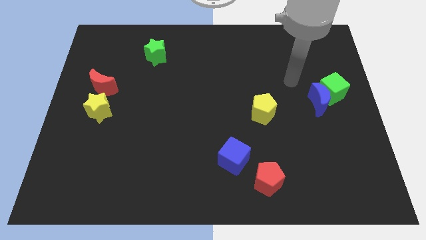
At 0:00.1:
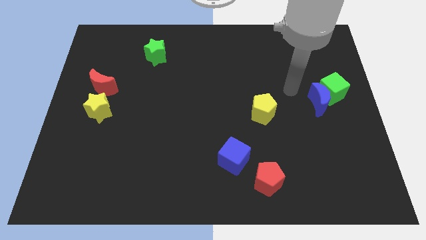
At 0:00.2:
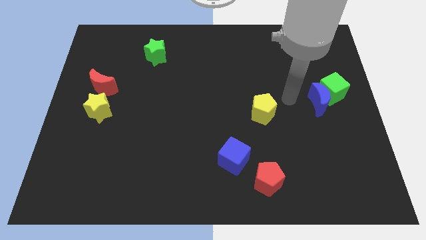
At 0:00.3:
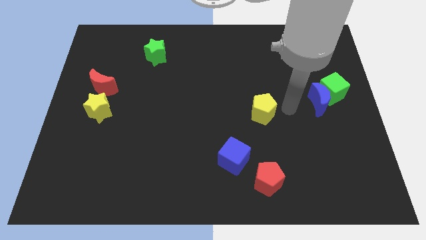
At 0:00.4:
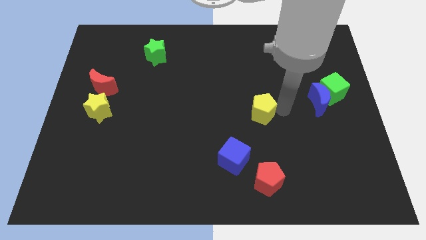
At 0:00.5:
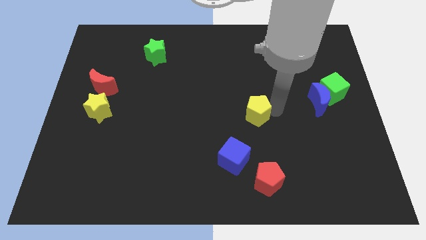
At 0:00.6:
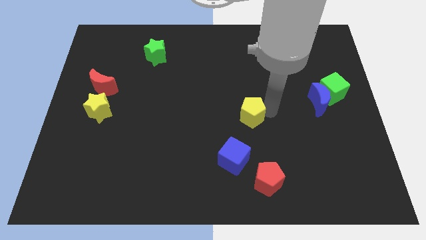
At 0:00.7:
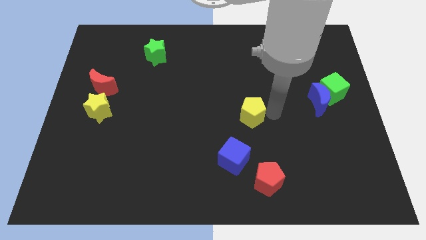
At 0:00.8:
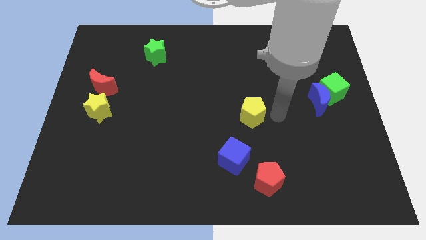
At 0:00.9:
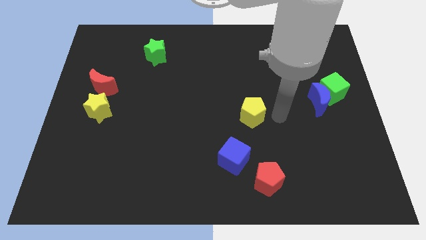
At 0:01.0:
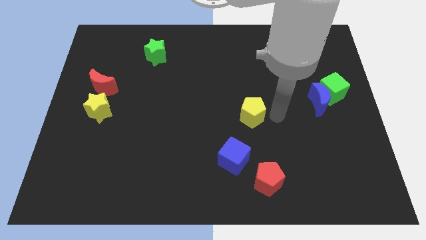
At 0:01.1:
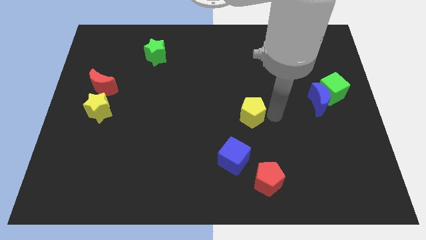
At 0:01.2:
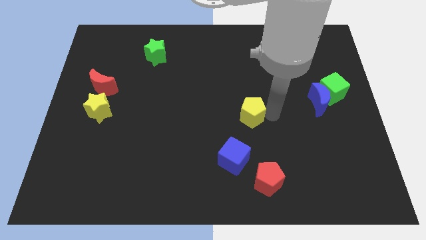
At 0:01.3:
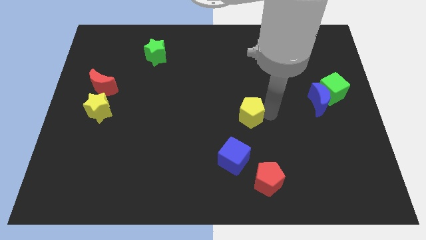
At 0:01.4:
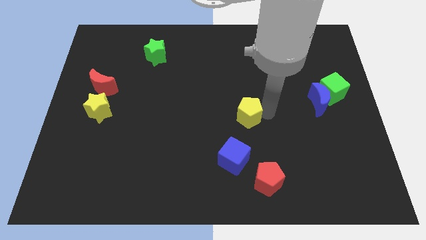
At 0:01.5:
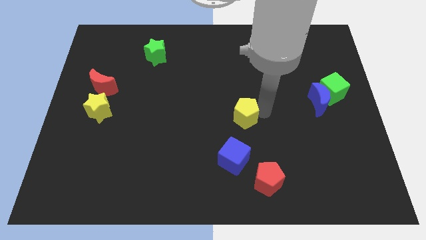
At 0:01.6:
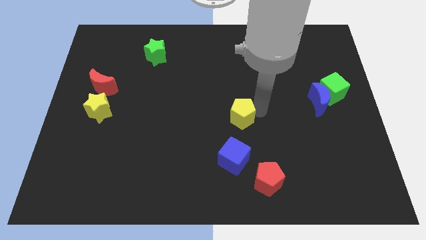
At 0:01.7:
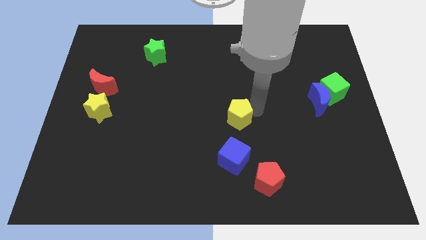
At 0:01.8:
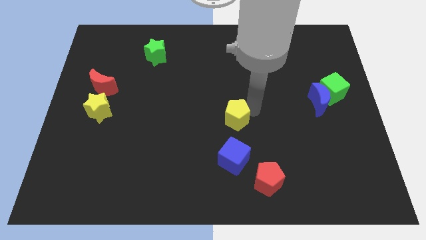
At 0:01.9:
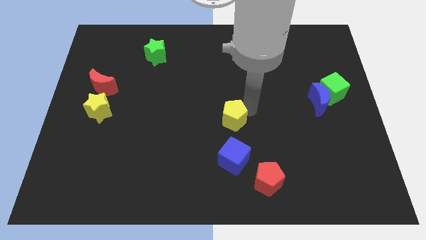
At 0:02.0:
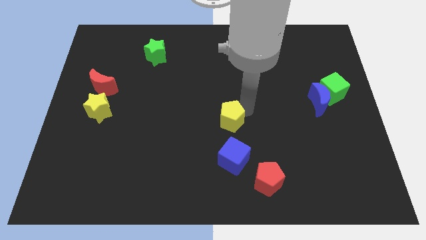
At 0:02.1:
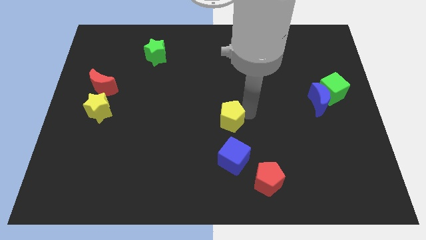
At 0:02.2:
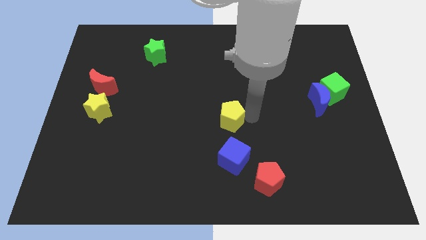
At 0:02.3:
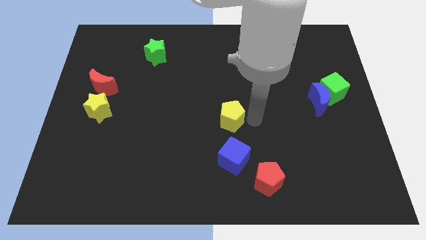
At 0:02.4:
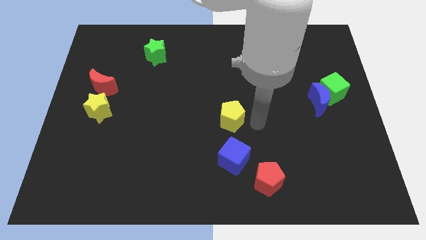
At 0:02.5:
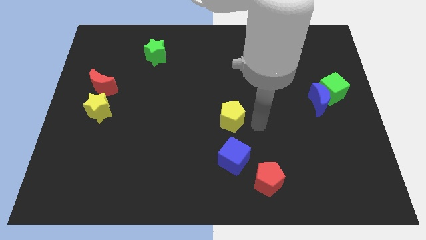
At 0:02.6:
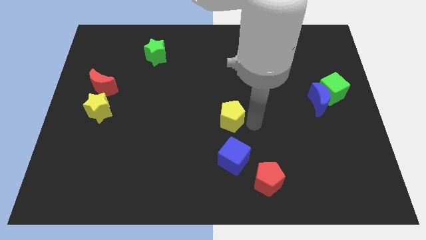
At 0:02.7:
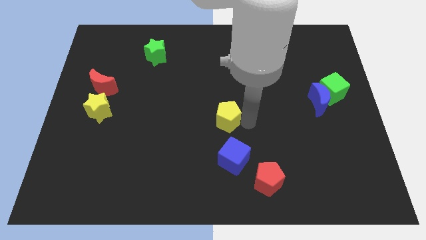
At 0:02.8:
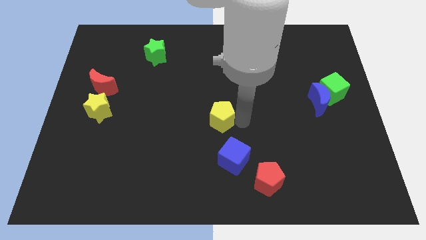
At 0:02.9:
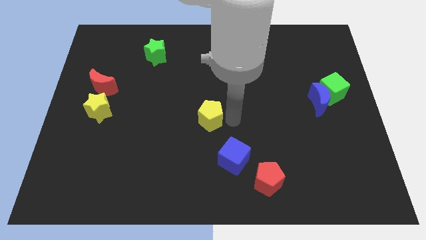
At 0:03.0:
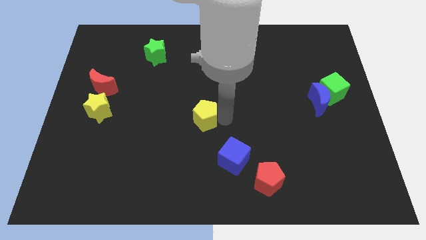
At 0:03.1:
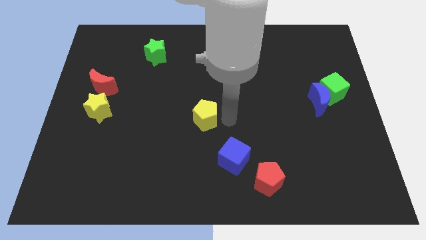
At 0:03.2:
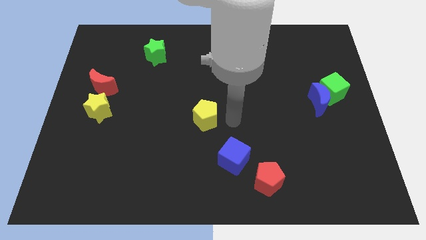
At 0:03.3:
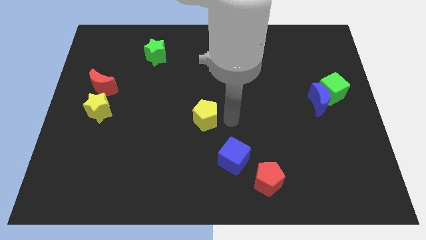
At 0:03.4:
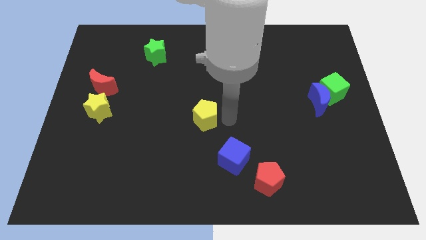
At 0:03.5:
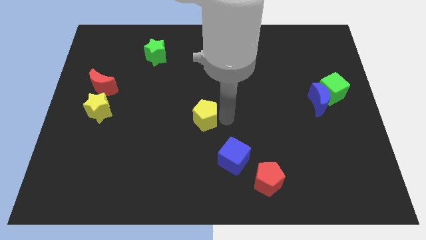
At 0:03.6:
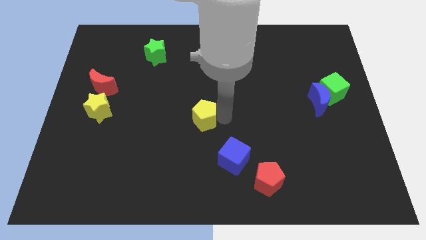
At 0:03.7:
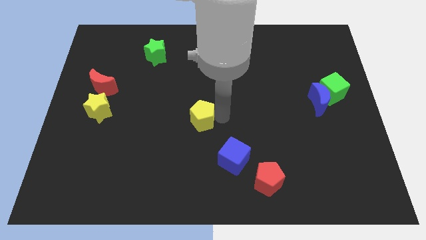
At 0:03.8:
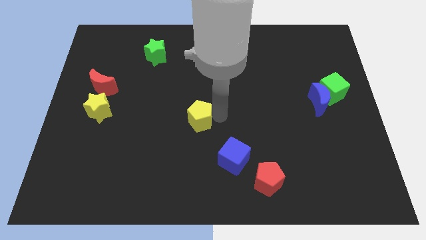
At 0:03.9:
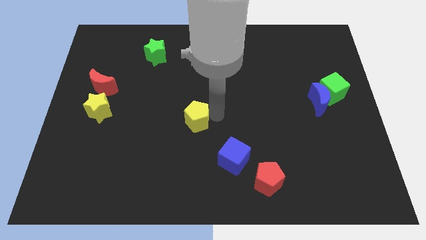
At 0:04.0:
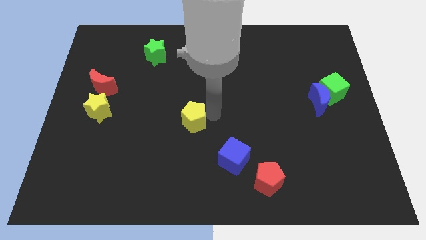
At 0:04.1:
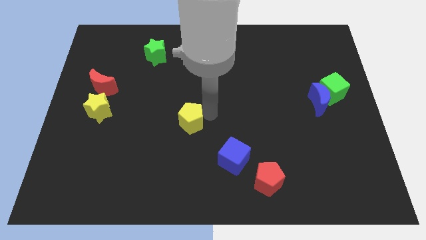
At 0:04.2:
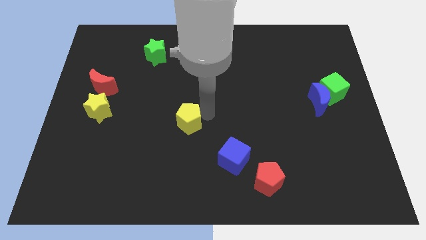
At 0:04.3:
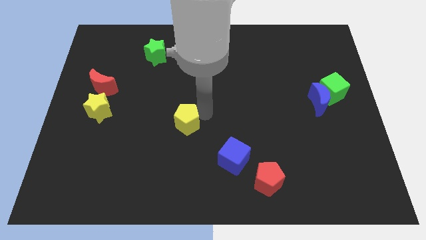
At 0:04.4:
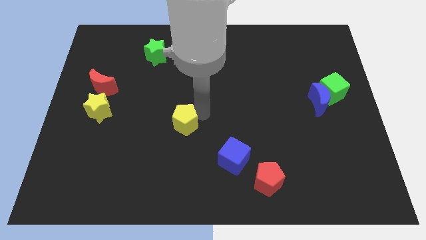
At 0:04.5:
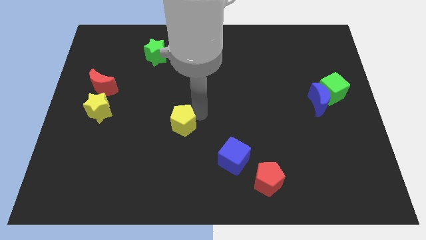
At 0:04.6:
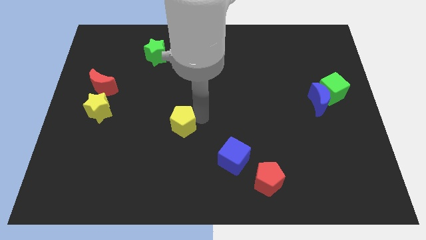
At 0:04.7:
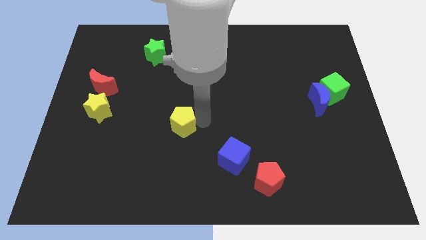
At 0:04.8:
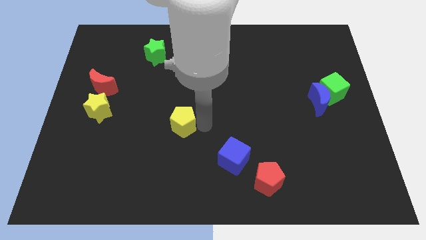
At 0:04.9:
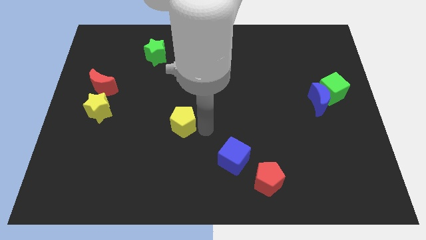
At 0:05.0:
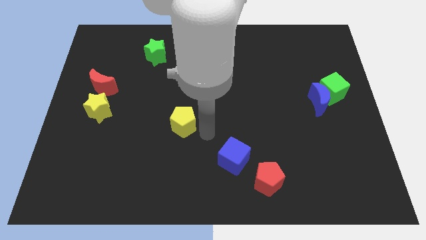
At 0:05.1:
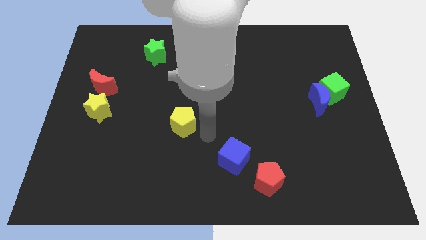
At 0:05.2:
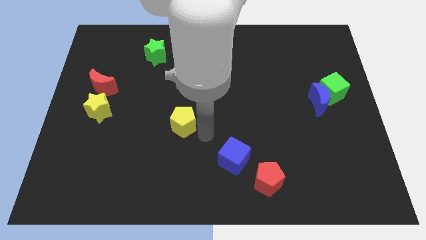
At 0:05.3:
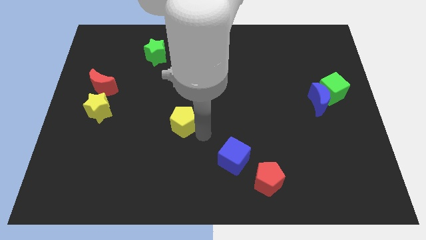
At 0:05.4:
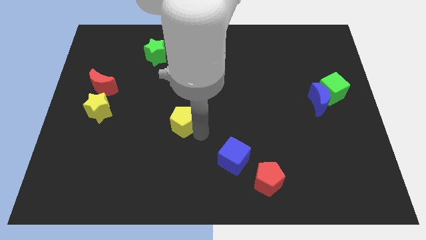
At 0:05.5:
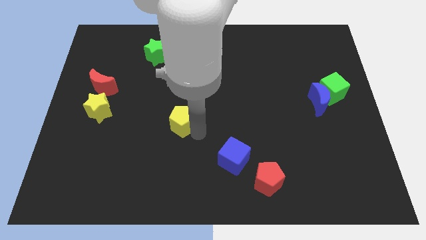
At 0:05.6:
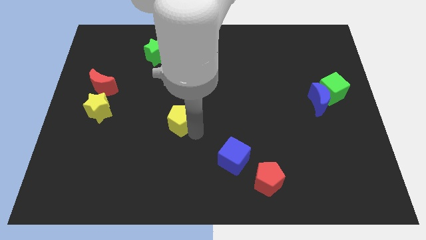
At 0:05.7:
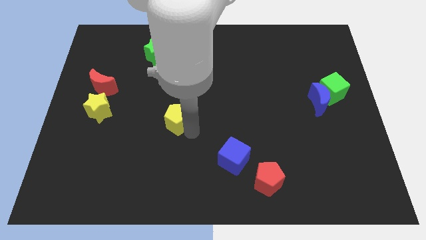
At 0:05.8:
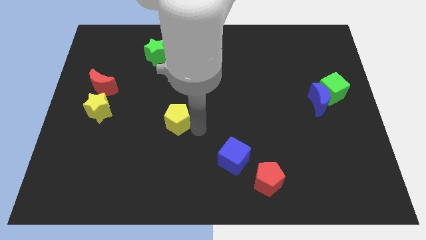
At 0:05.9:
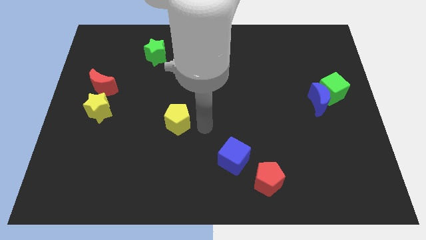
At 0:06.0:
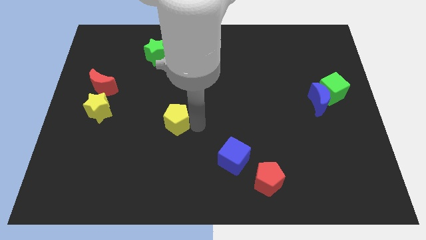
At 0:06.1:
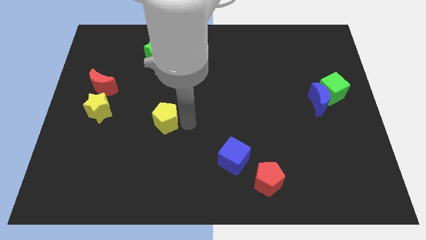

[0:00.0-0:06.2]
move the yellow pentagon to the left

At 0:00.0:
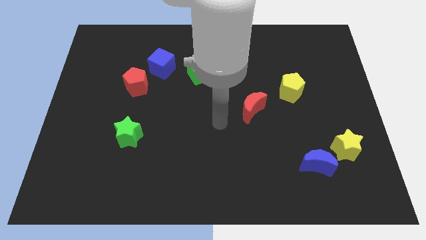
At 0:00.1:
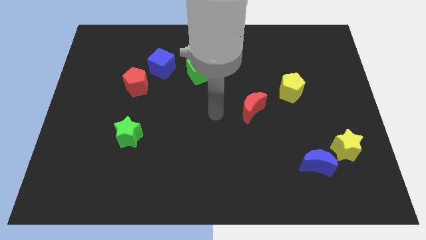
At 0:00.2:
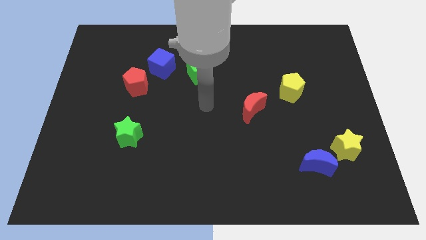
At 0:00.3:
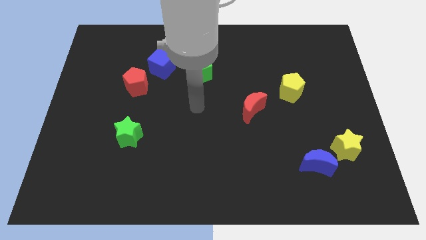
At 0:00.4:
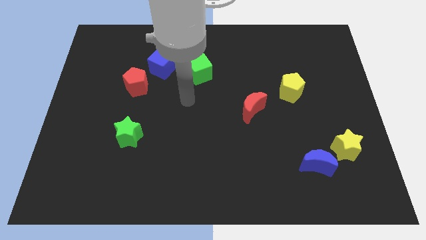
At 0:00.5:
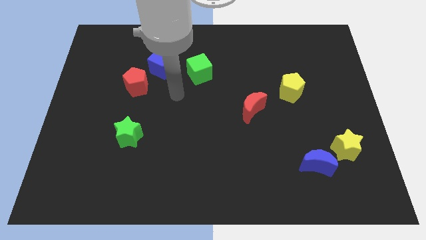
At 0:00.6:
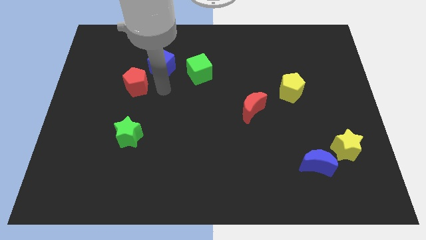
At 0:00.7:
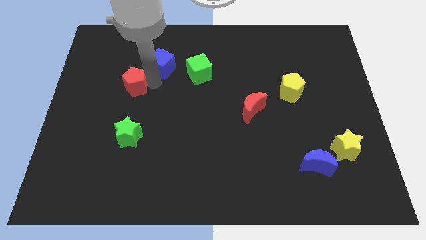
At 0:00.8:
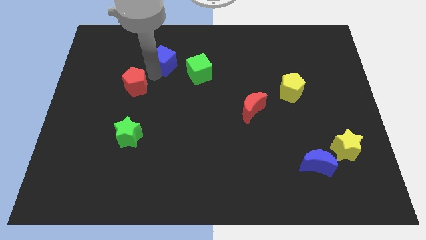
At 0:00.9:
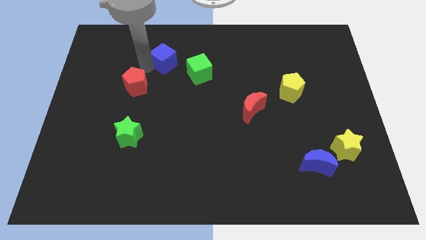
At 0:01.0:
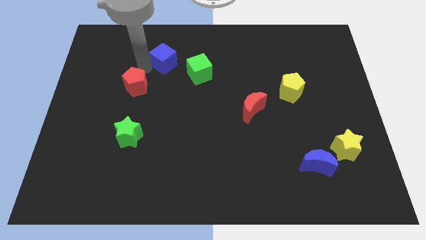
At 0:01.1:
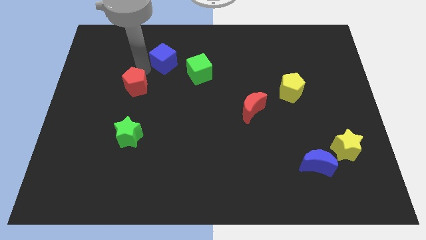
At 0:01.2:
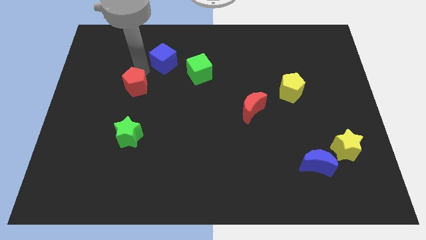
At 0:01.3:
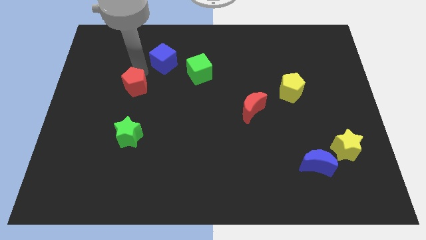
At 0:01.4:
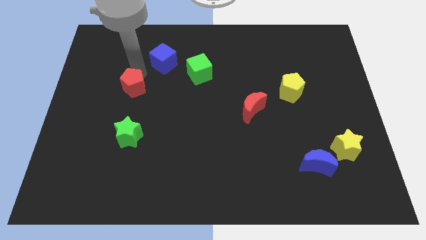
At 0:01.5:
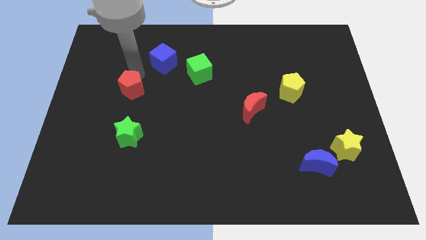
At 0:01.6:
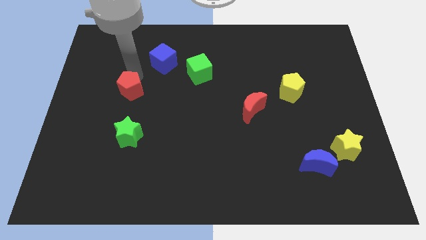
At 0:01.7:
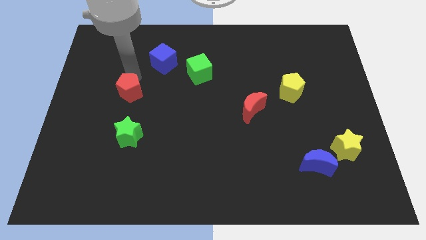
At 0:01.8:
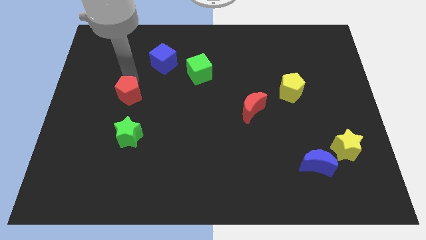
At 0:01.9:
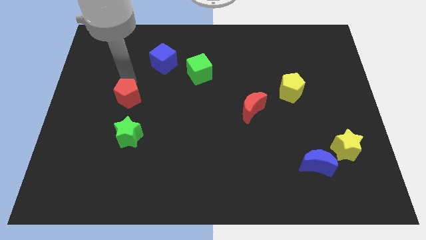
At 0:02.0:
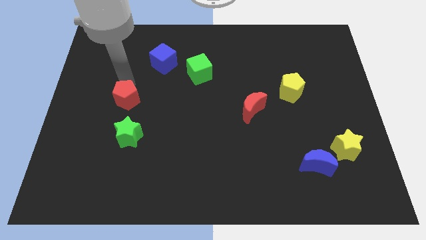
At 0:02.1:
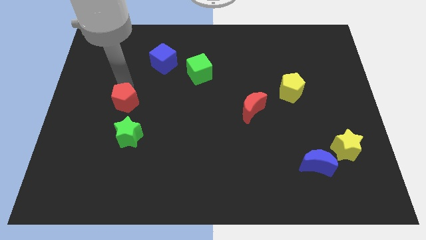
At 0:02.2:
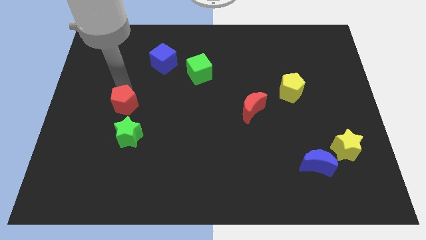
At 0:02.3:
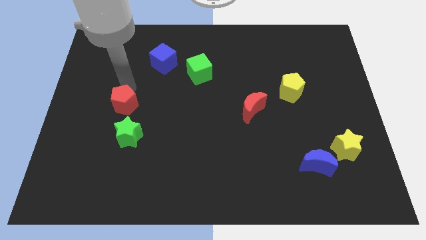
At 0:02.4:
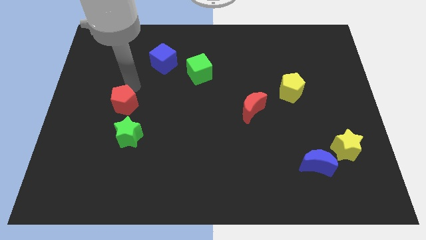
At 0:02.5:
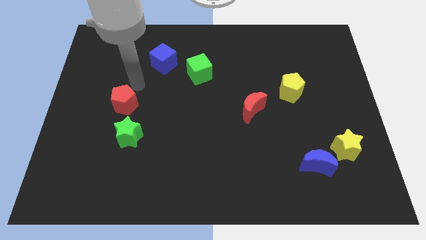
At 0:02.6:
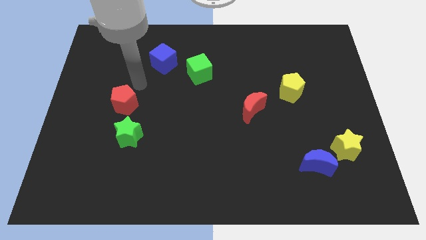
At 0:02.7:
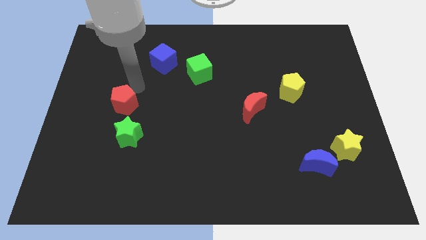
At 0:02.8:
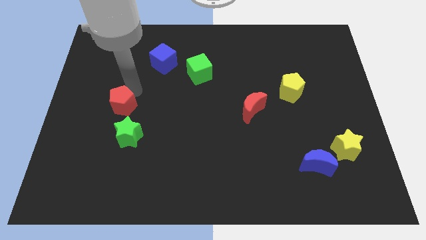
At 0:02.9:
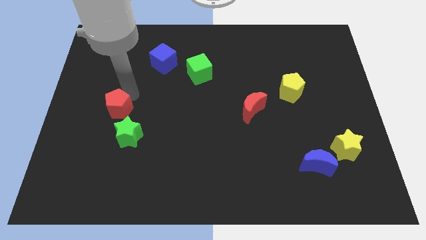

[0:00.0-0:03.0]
move the red pentagon downwards a little bit
